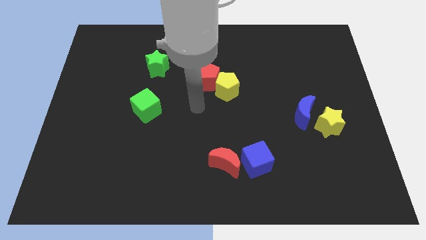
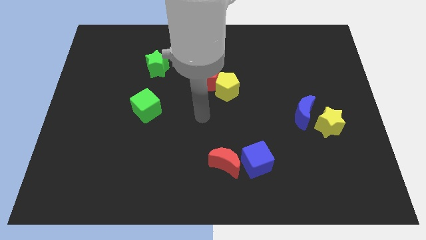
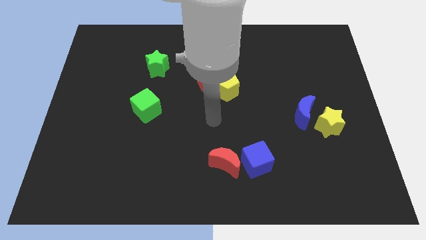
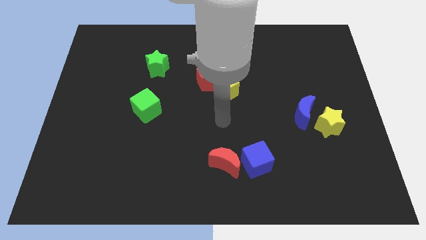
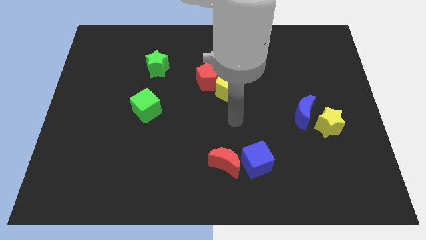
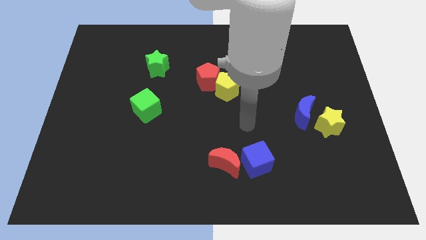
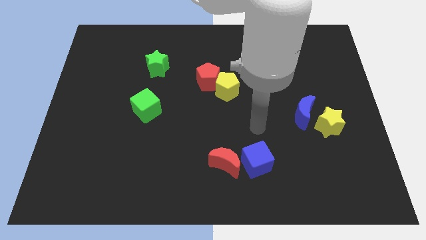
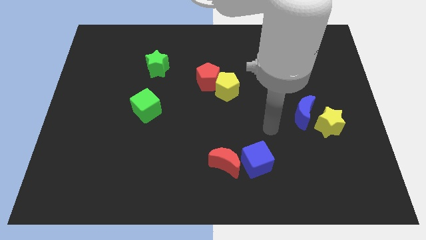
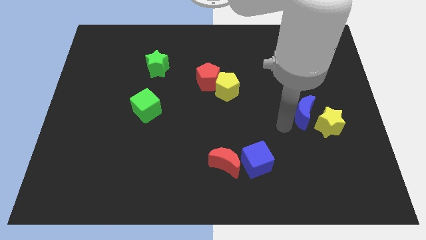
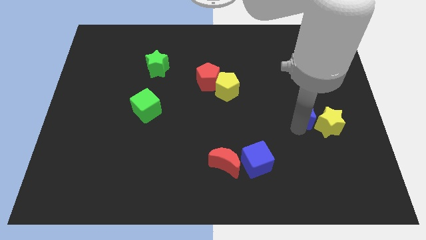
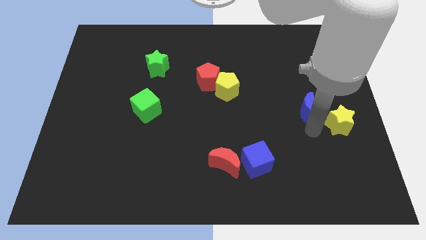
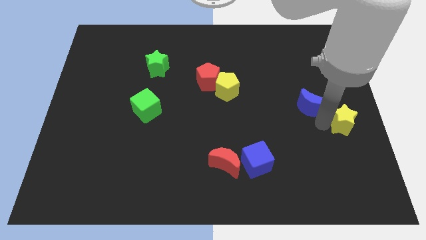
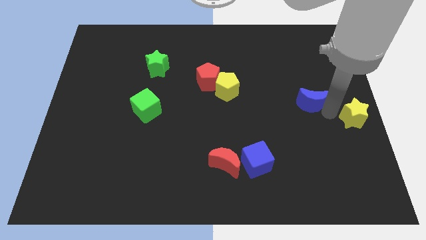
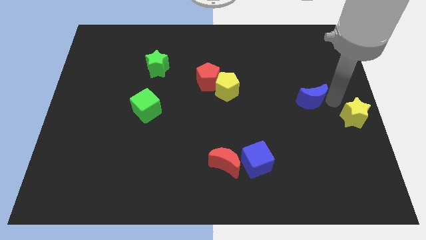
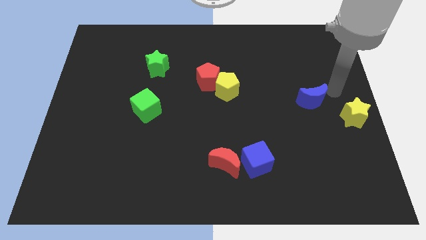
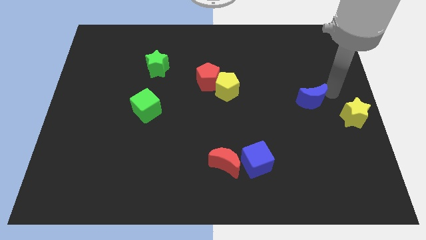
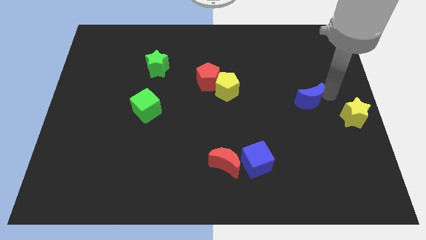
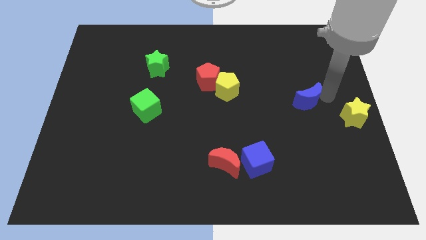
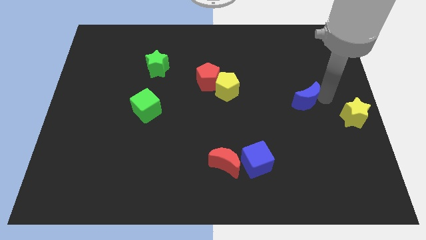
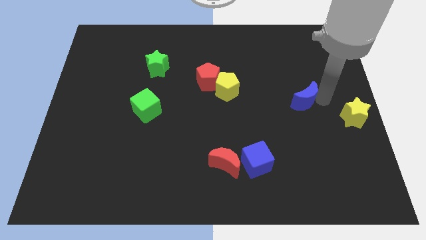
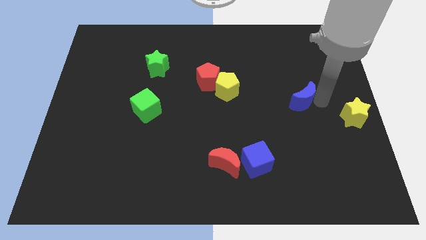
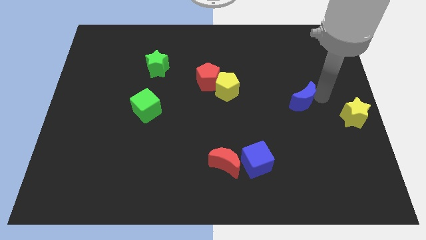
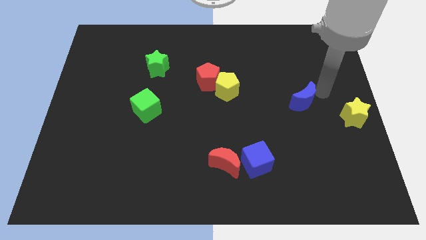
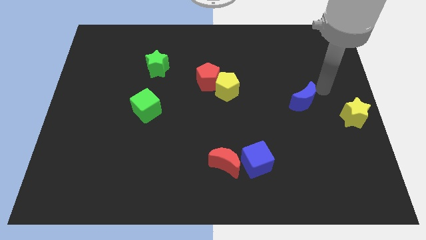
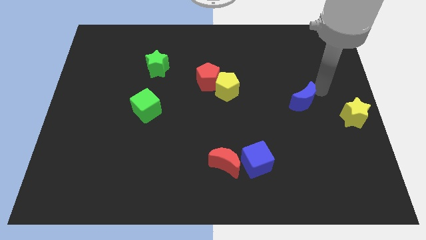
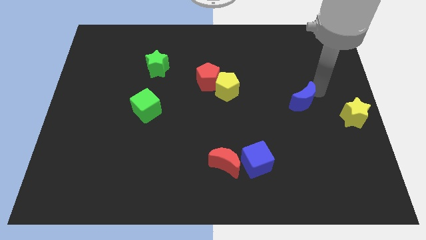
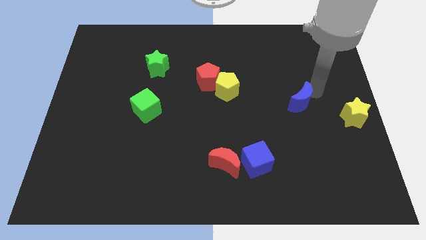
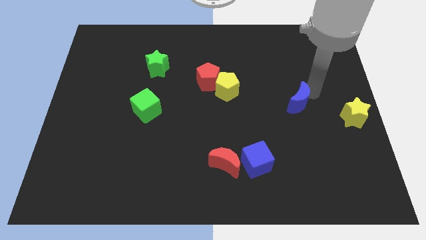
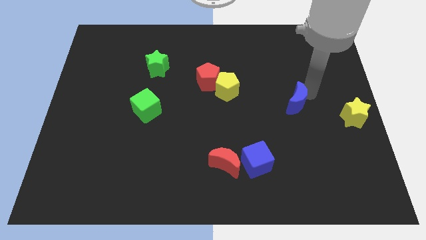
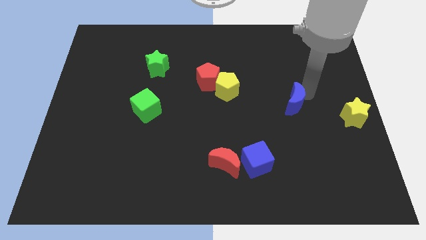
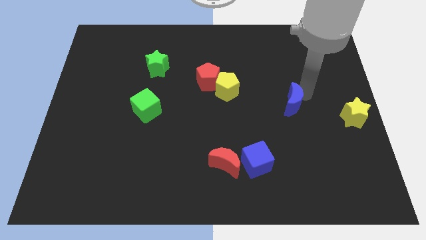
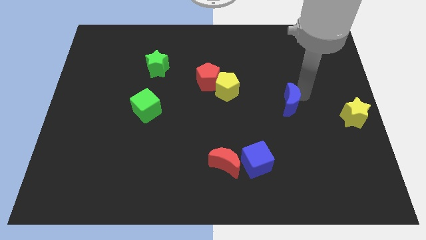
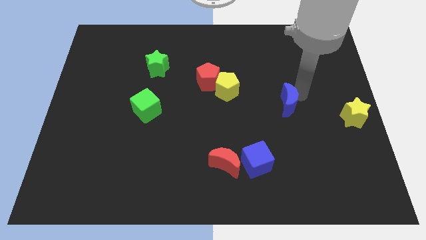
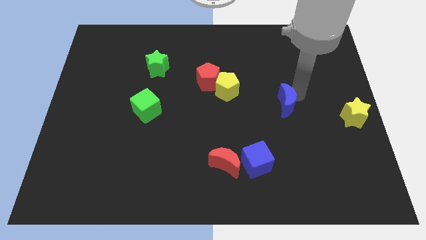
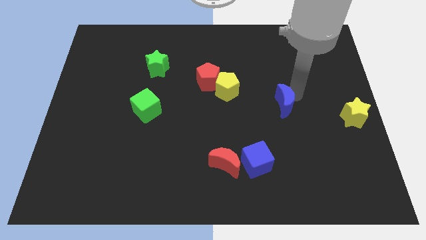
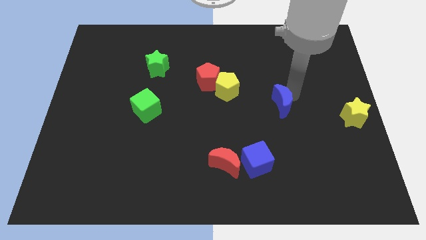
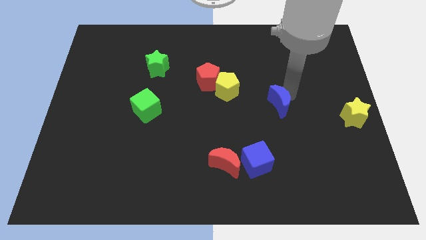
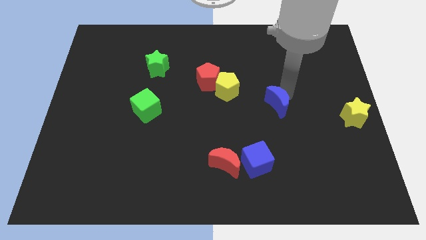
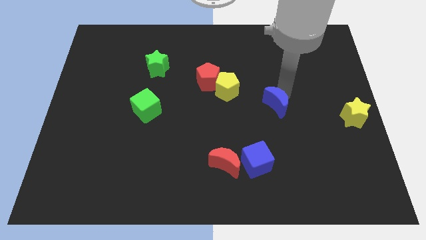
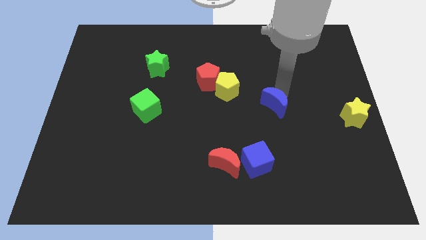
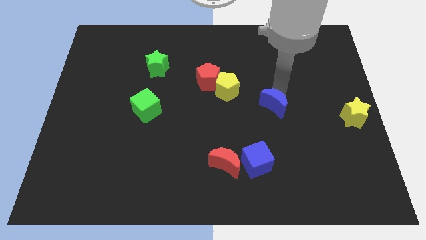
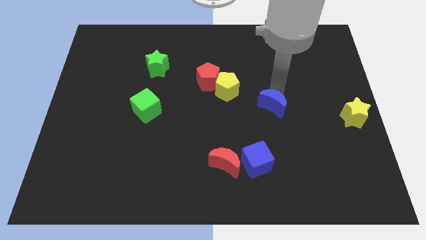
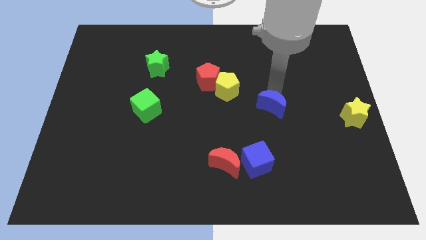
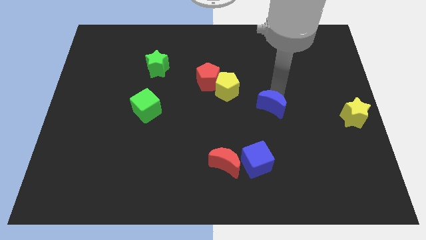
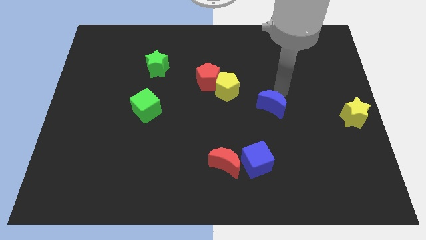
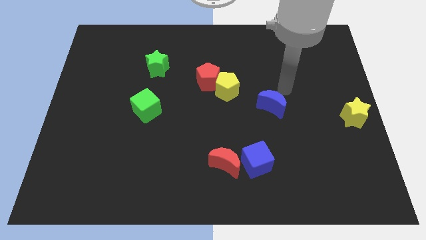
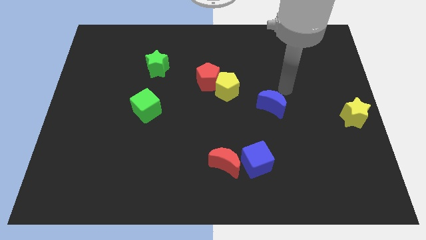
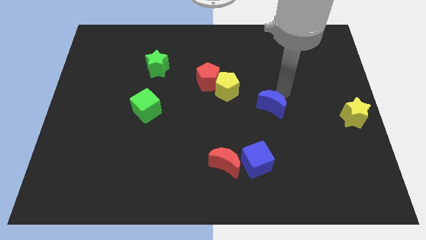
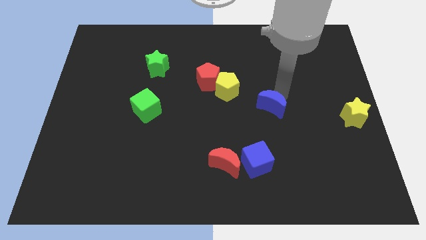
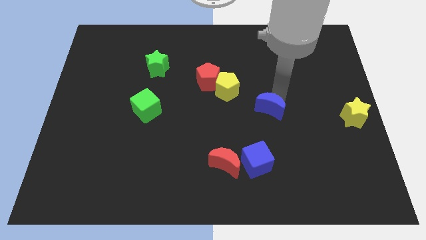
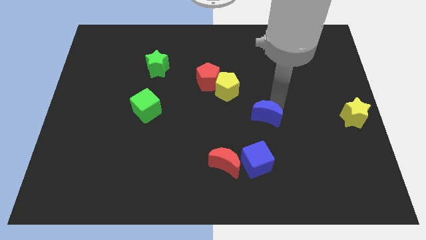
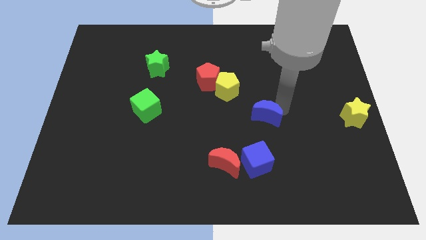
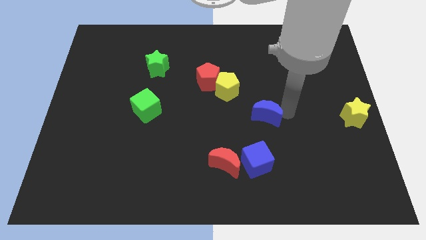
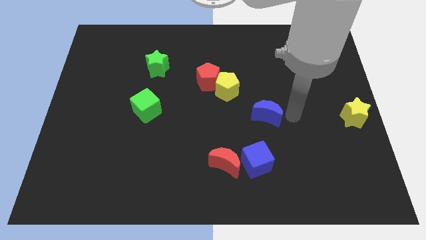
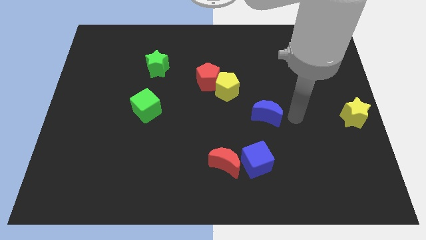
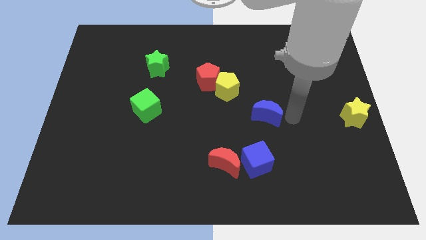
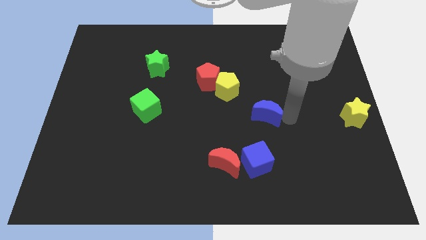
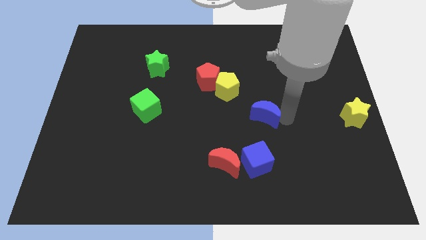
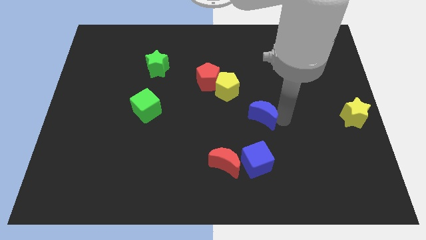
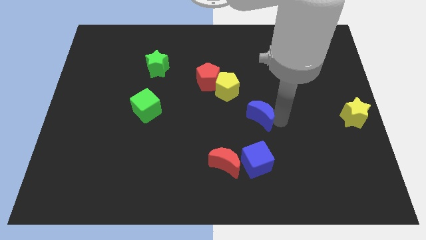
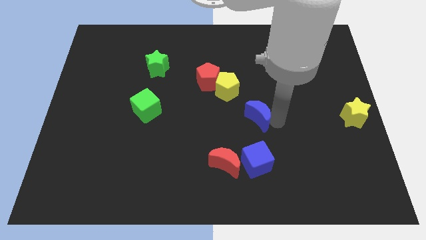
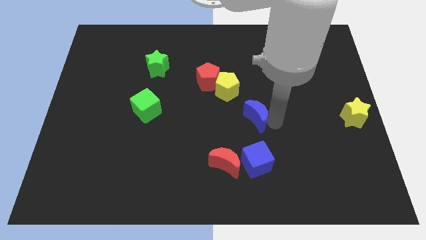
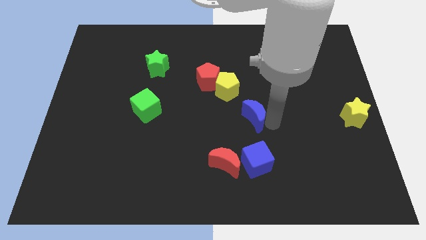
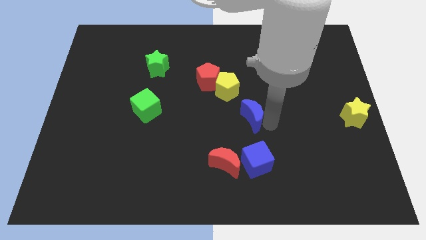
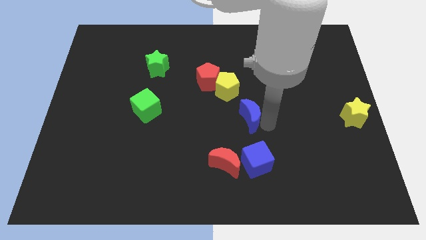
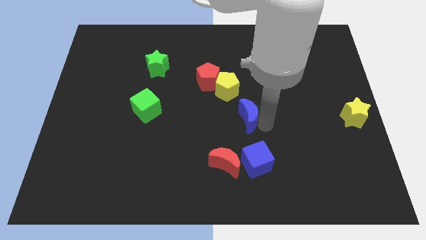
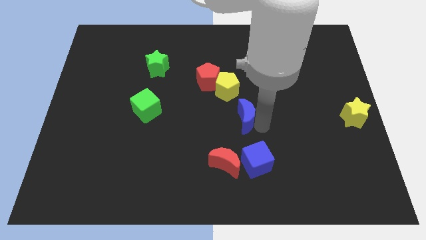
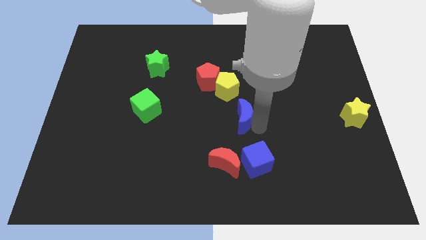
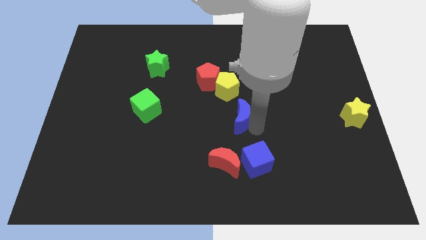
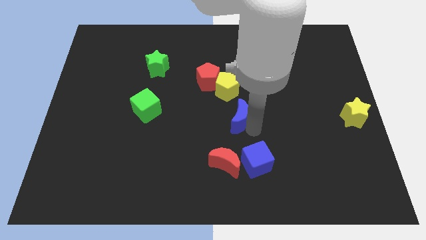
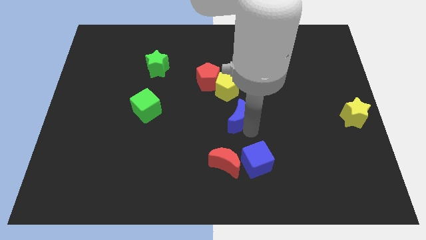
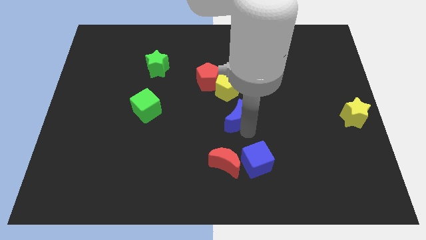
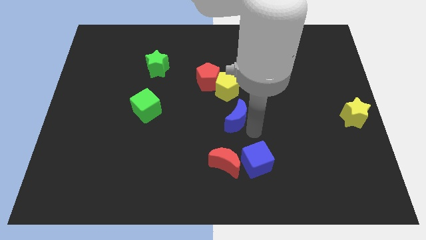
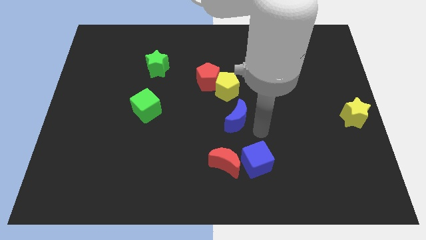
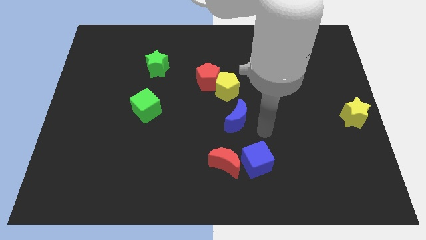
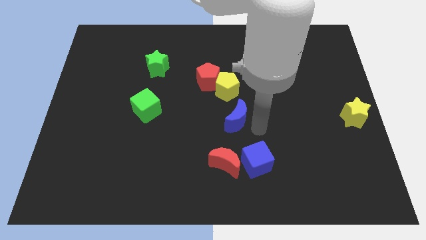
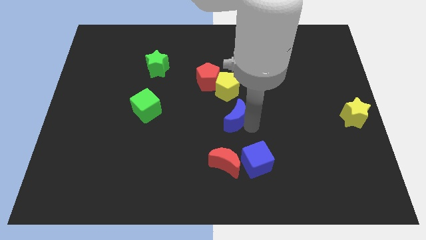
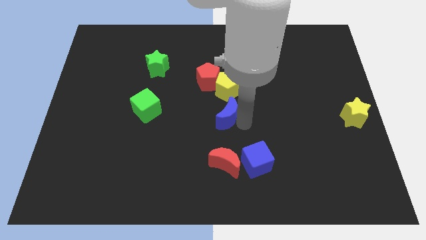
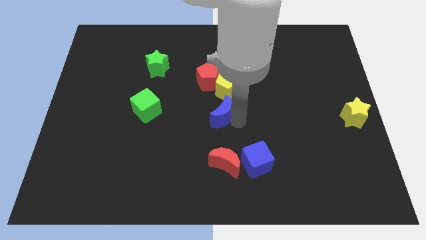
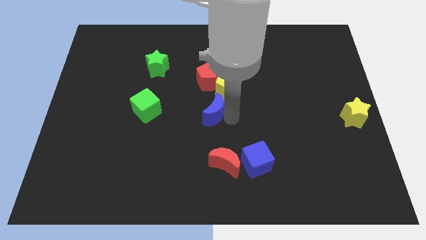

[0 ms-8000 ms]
push the blue moon left
